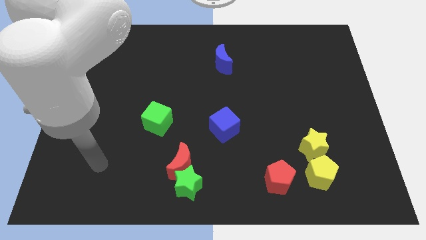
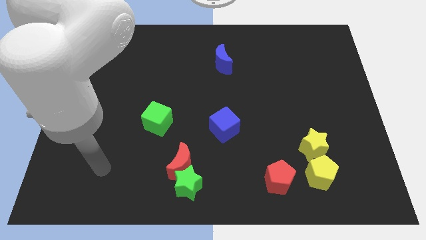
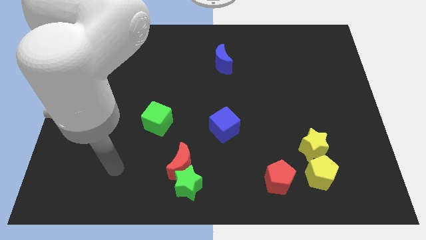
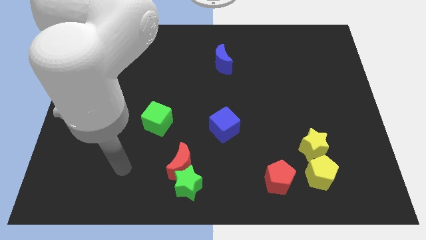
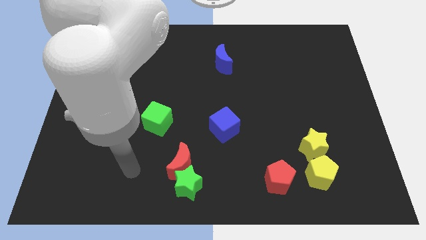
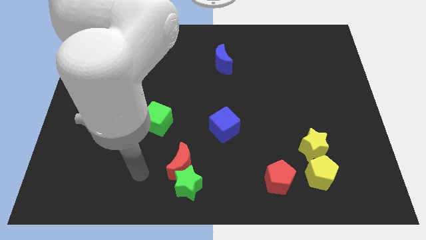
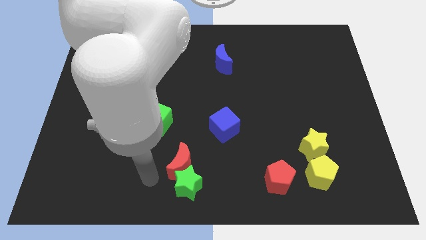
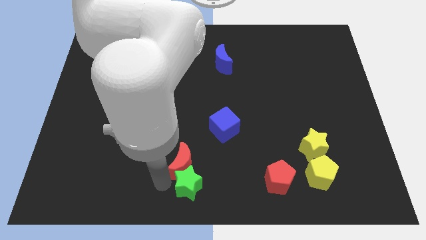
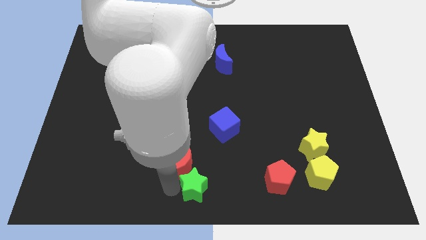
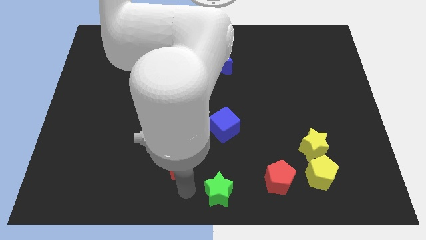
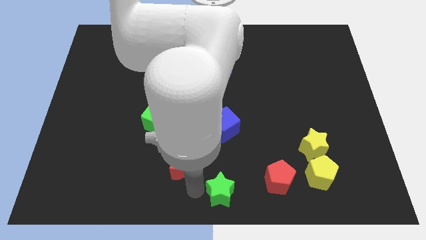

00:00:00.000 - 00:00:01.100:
pull the red moon apart from the green star

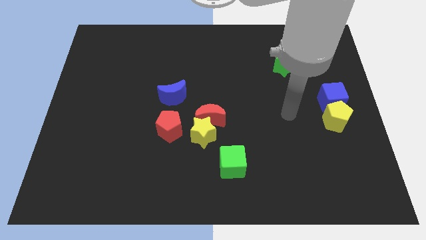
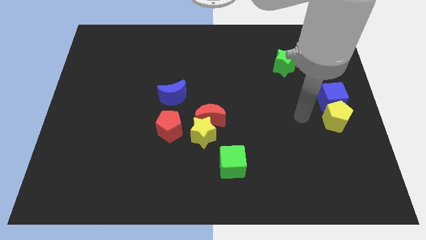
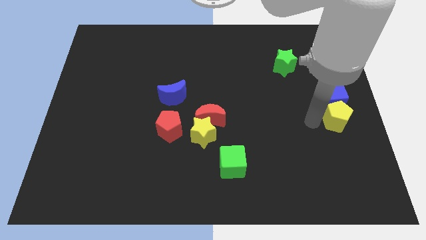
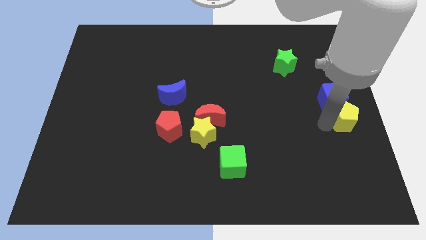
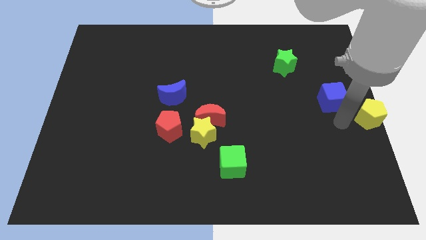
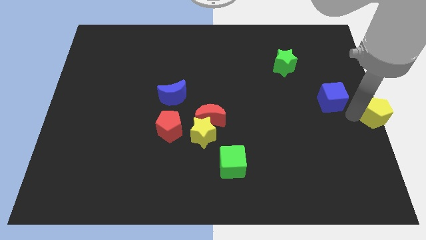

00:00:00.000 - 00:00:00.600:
move the blue cube away from the yellow pentagon

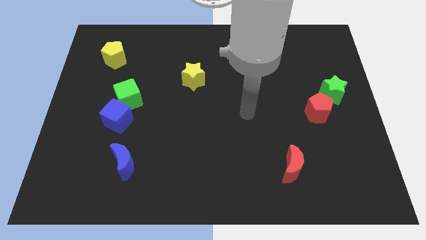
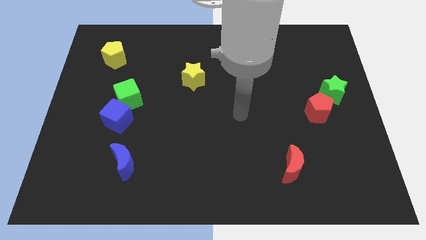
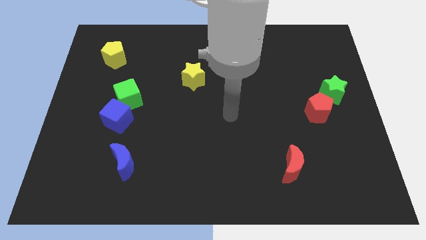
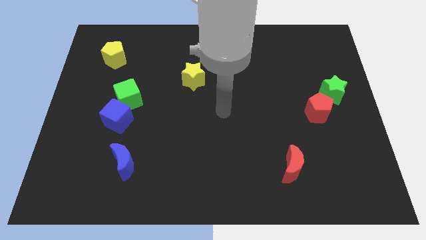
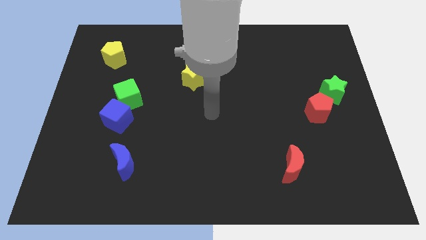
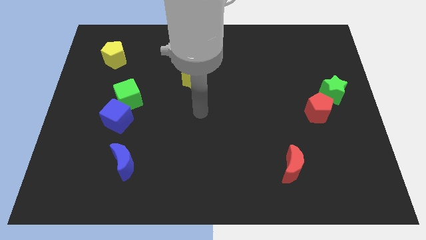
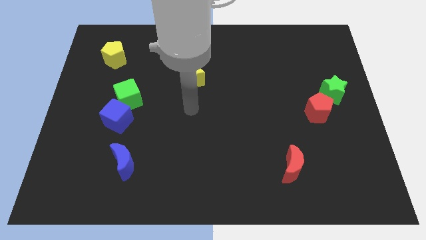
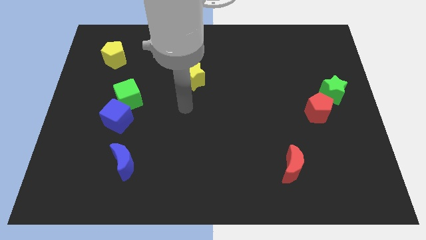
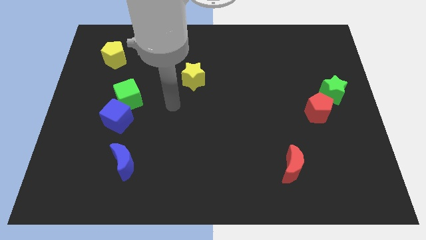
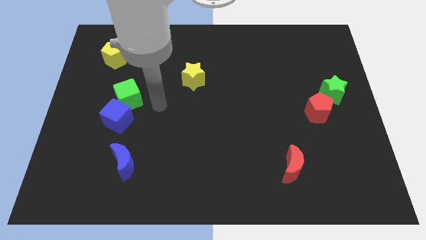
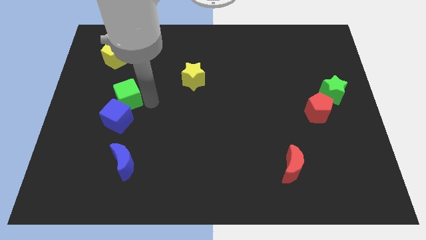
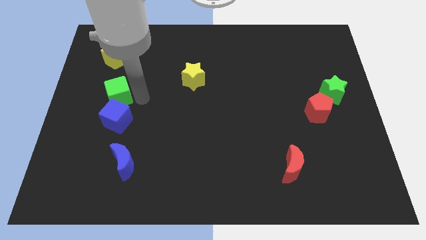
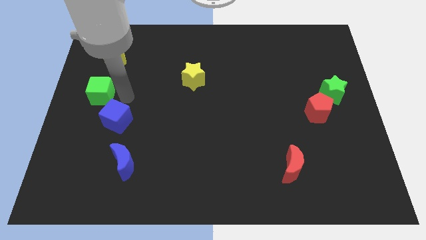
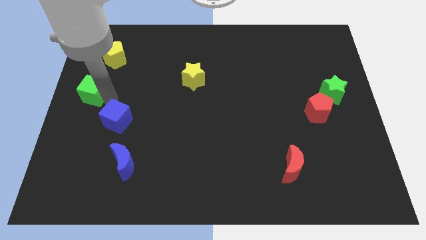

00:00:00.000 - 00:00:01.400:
separate the blue cube from the green cube

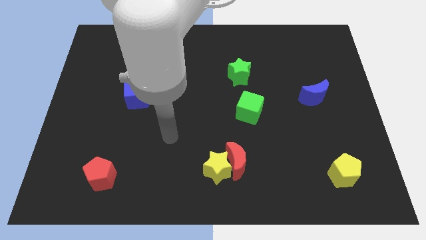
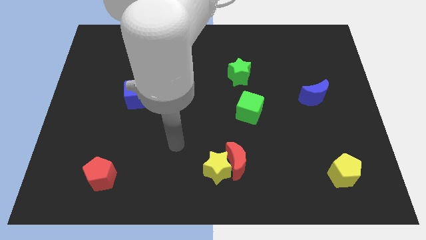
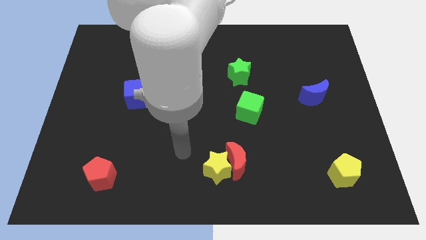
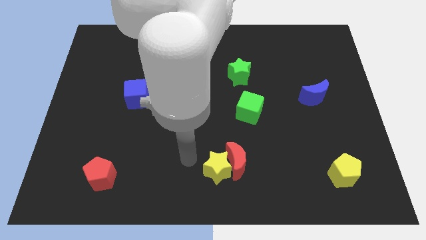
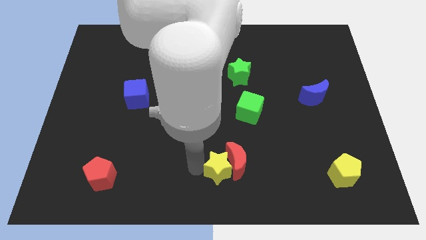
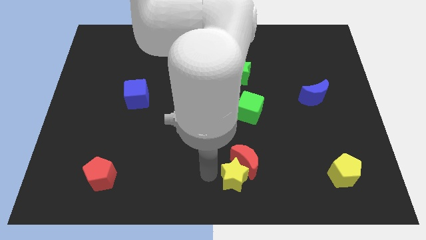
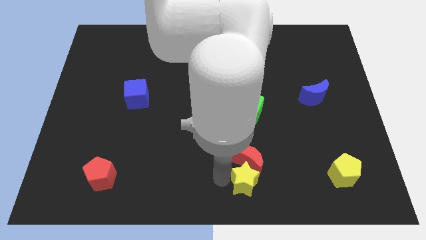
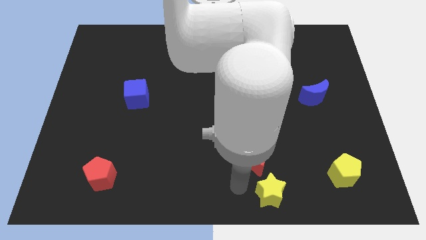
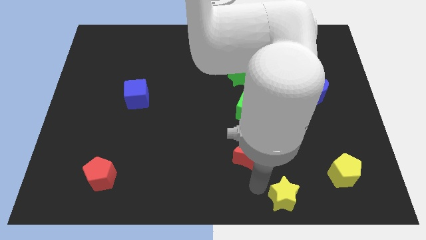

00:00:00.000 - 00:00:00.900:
pull the red moon apart from the yellow star

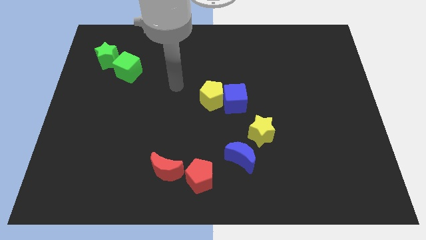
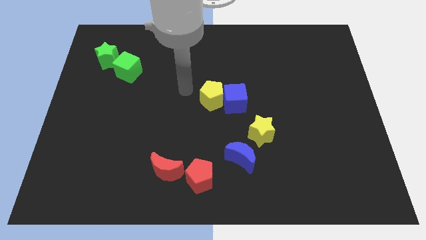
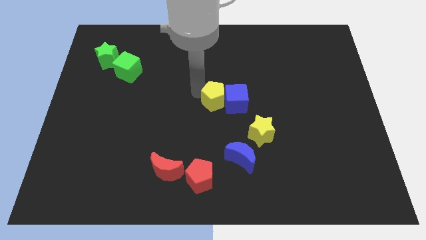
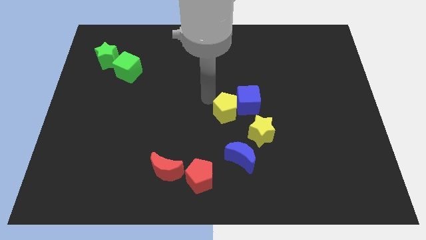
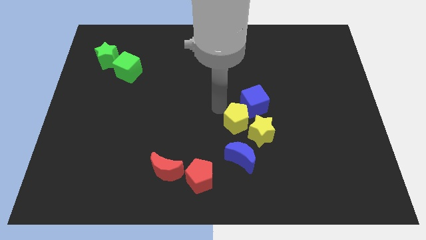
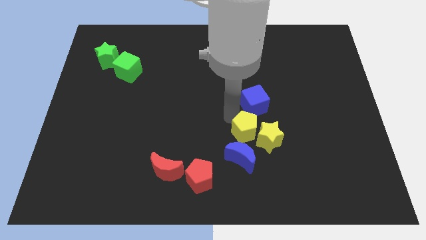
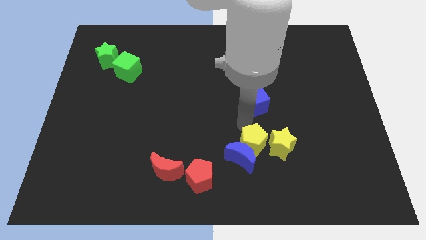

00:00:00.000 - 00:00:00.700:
separate the blue cube from the yellow pentagon

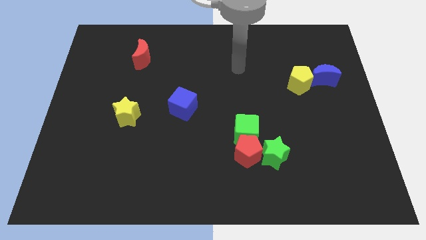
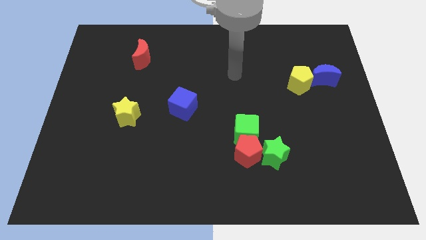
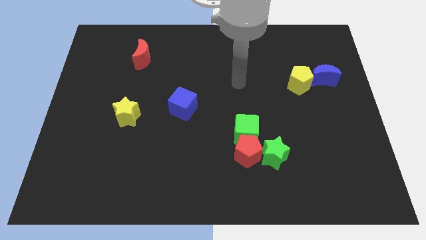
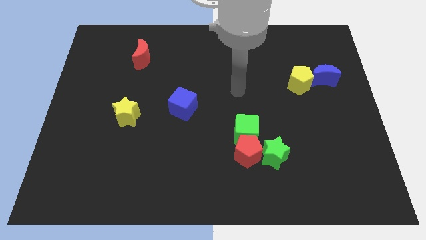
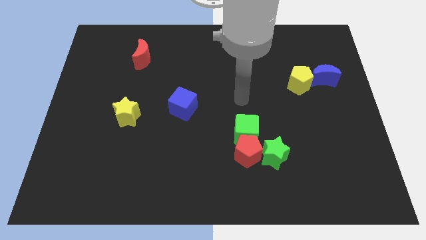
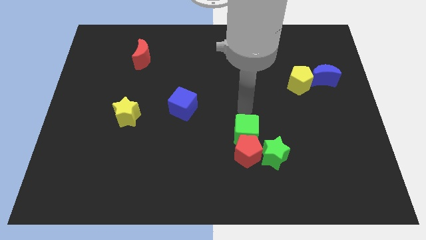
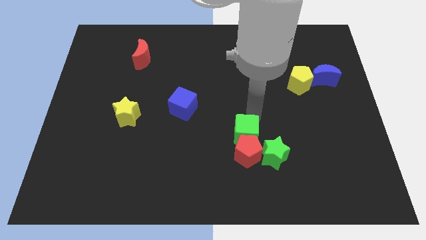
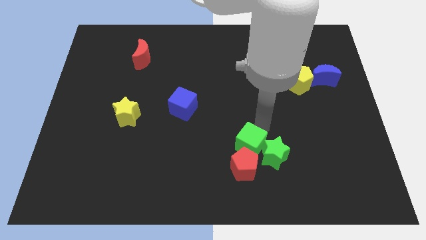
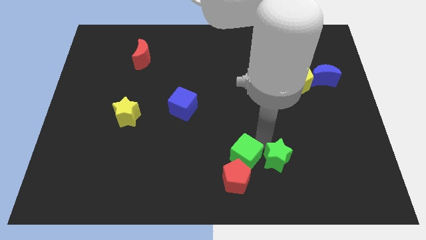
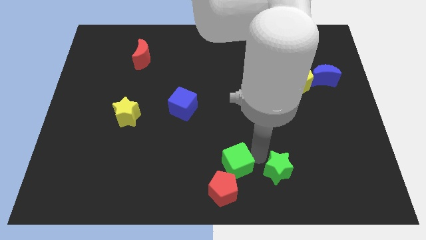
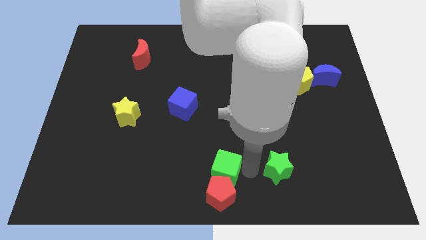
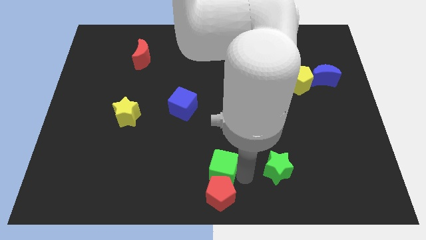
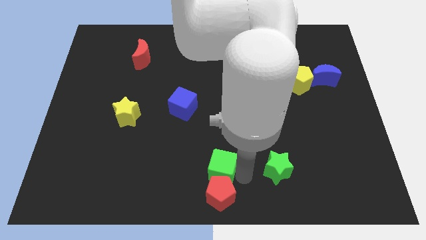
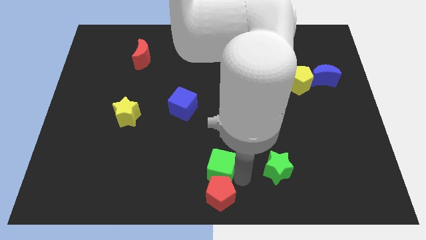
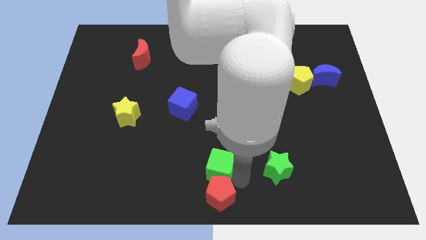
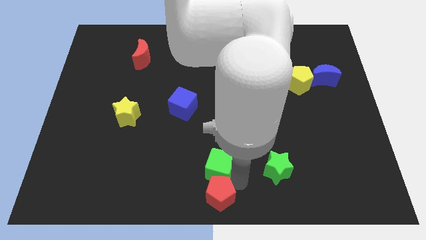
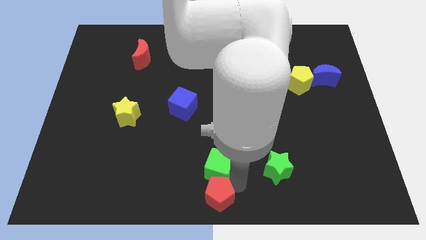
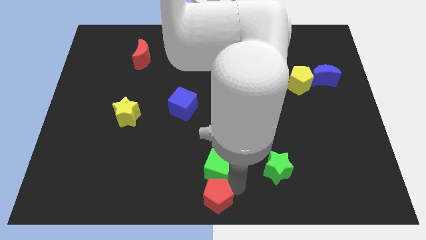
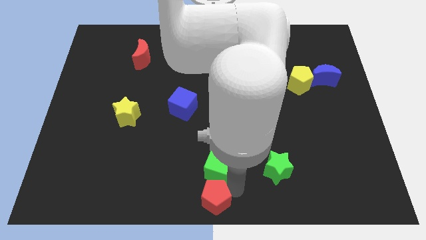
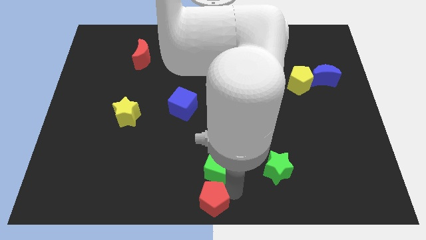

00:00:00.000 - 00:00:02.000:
separate the red pentagon from the green cube and green star

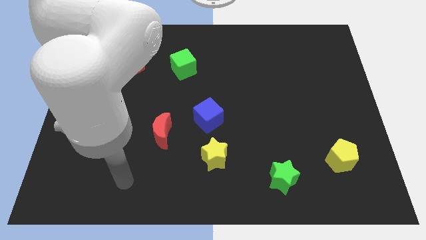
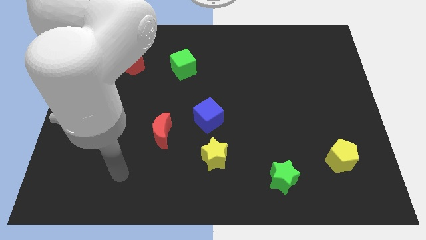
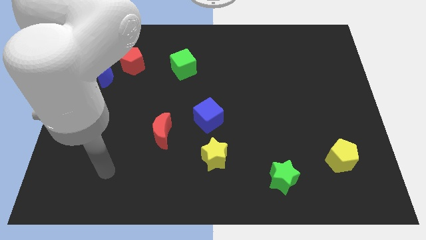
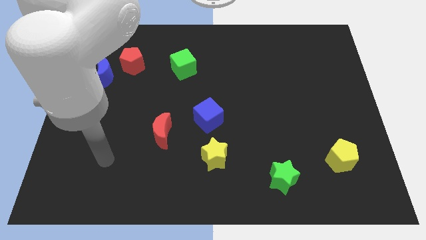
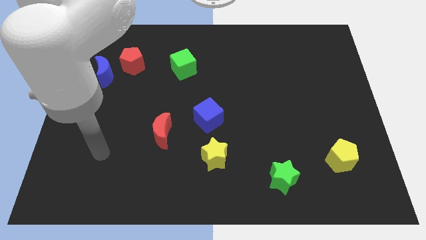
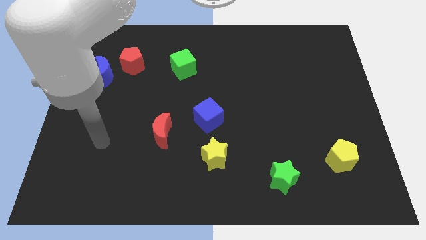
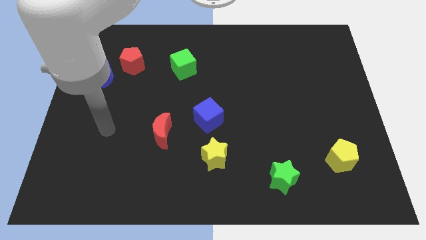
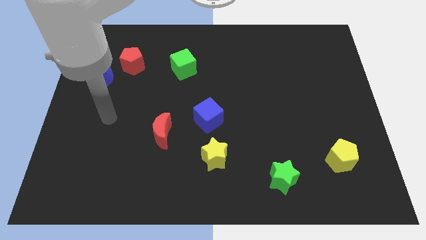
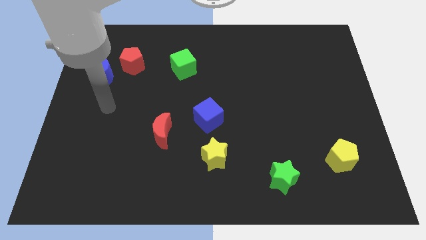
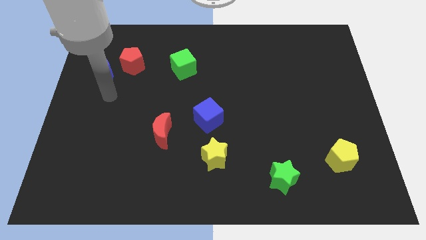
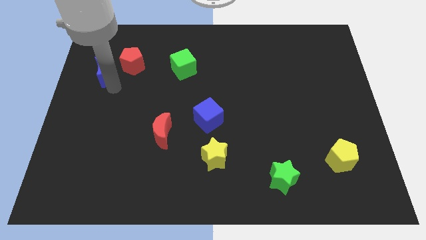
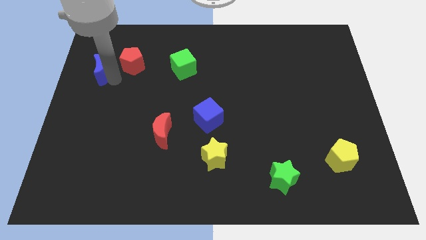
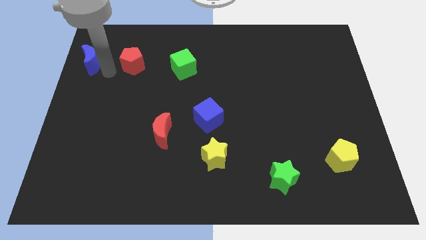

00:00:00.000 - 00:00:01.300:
move the red pentagon away from the blue moon

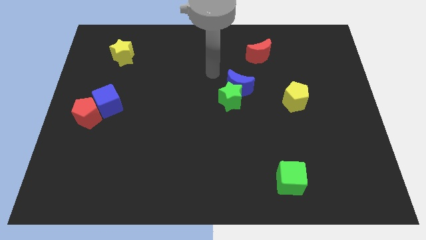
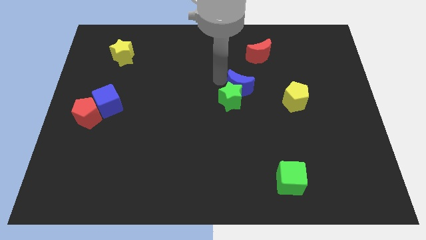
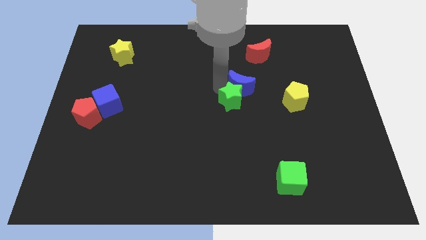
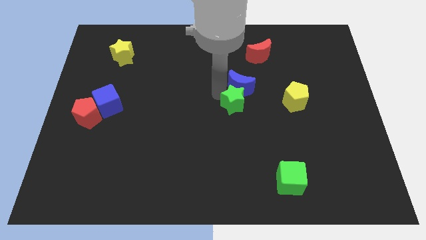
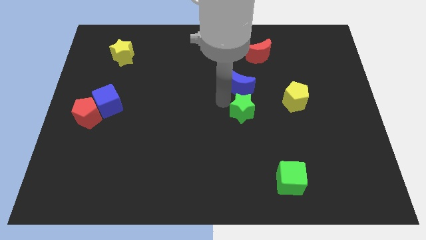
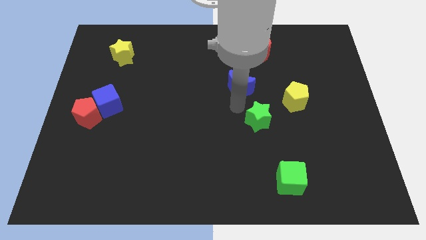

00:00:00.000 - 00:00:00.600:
separate the blue moon from the green star

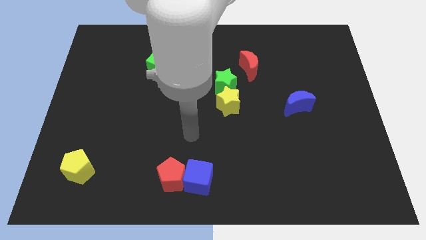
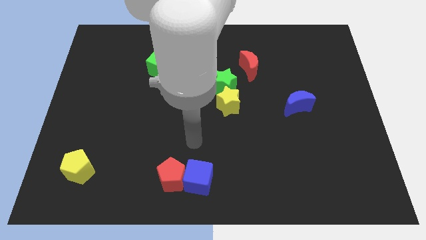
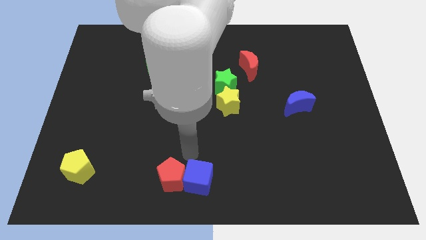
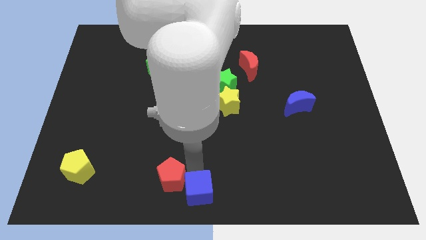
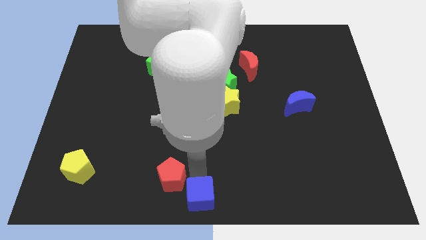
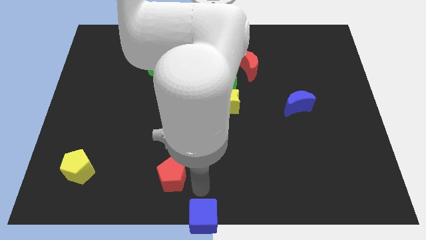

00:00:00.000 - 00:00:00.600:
pull the red pentagon apart from the blue cube
